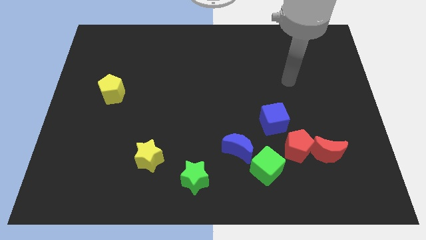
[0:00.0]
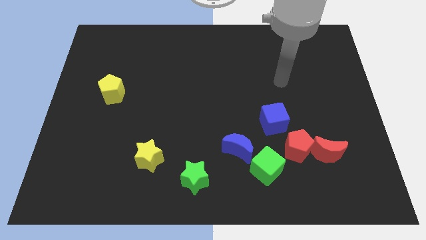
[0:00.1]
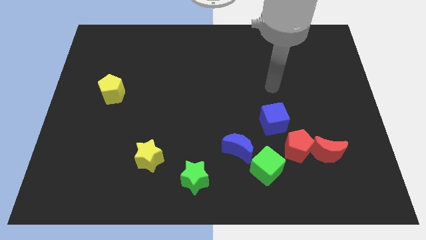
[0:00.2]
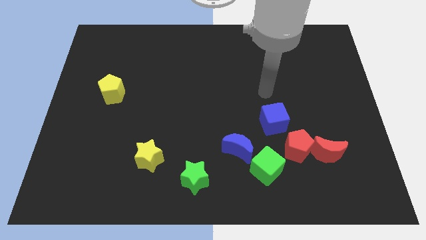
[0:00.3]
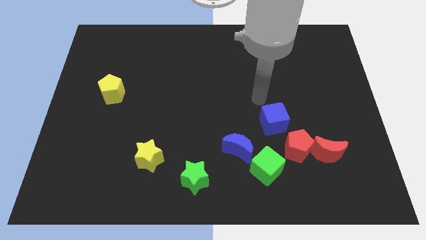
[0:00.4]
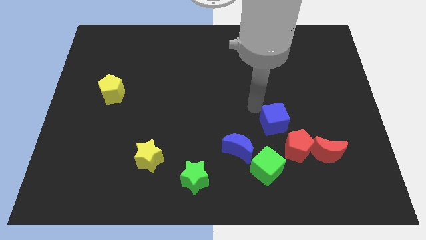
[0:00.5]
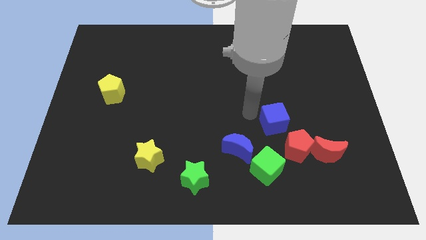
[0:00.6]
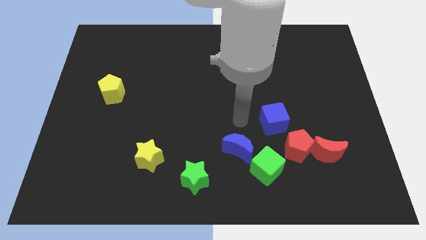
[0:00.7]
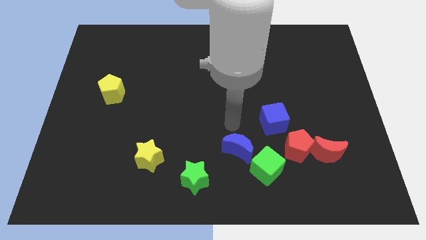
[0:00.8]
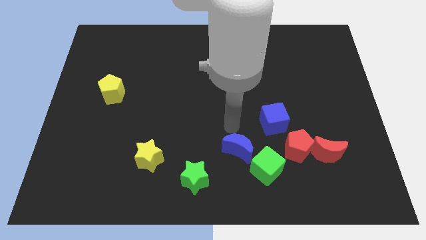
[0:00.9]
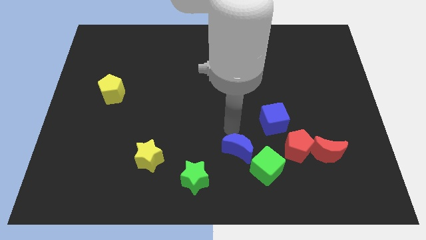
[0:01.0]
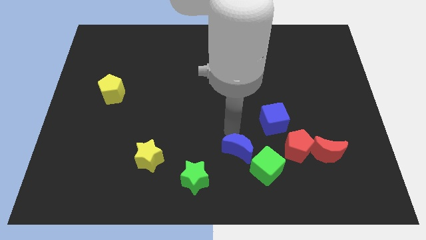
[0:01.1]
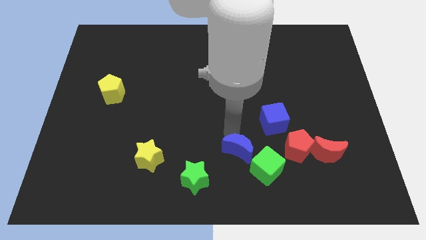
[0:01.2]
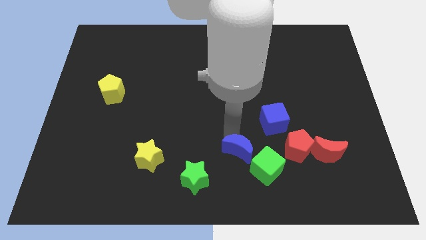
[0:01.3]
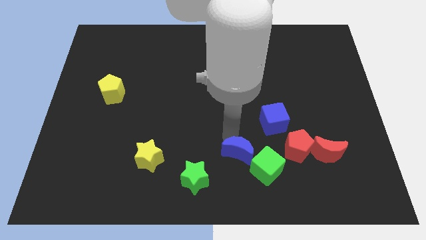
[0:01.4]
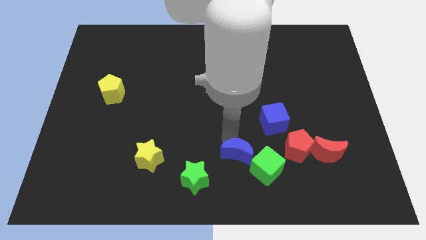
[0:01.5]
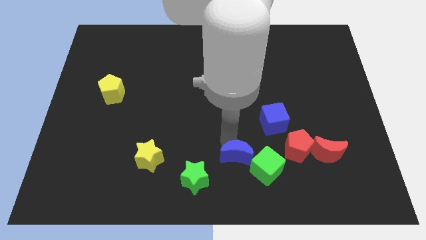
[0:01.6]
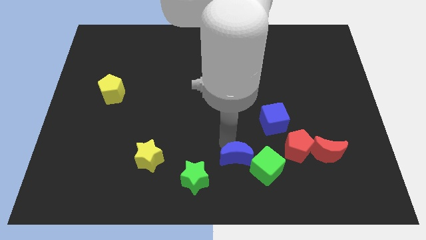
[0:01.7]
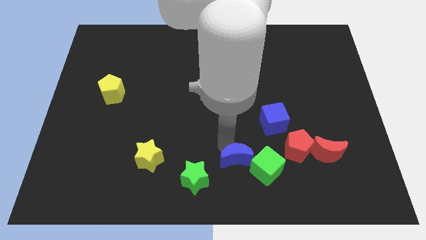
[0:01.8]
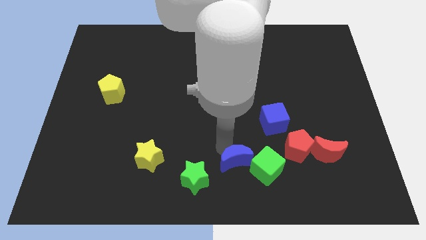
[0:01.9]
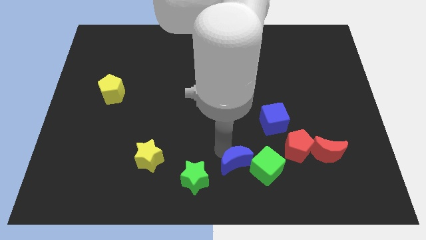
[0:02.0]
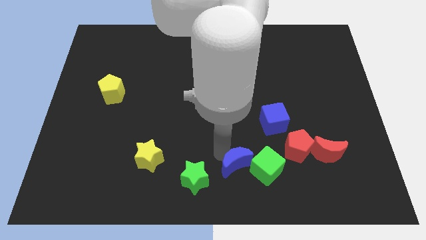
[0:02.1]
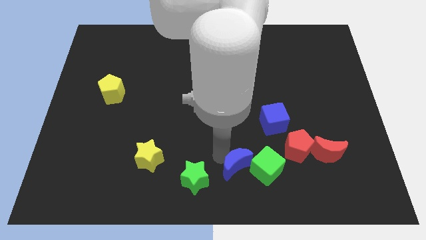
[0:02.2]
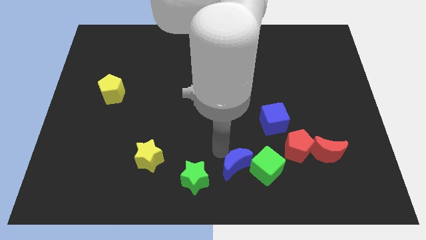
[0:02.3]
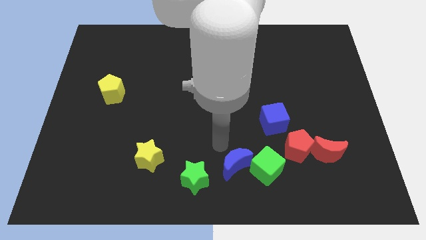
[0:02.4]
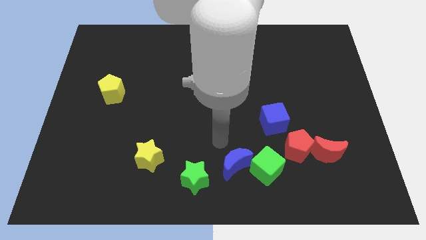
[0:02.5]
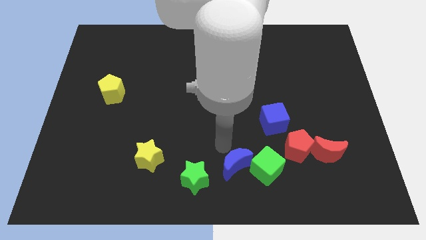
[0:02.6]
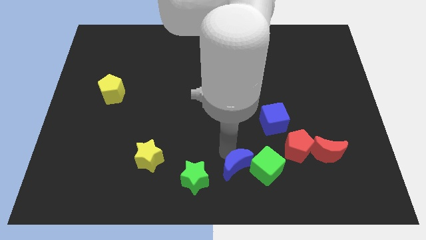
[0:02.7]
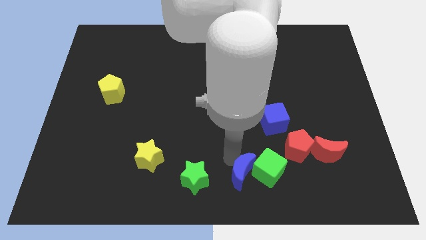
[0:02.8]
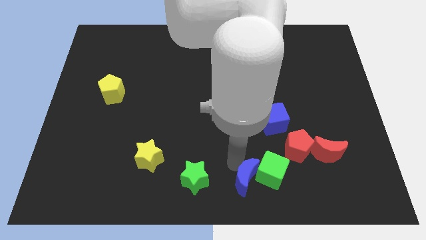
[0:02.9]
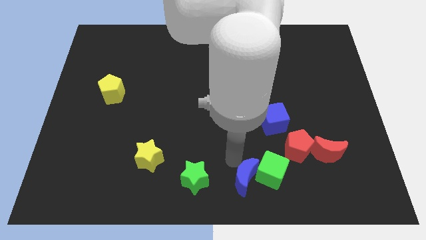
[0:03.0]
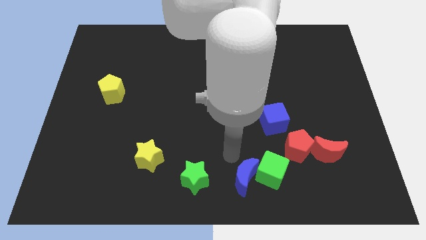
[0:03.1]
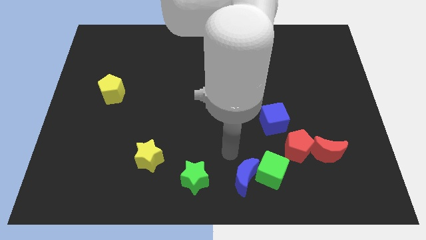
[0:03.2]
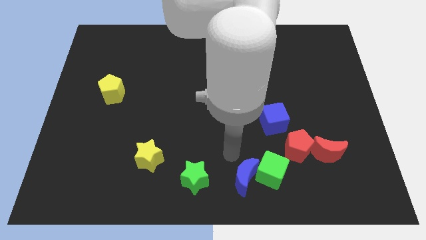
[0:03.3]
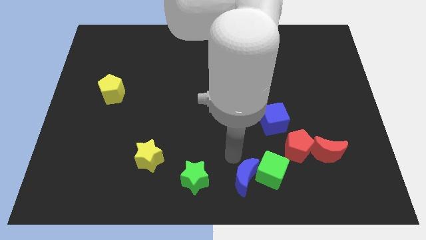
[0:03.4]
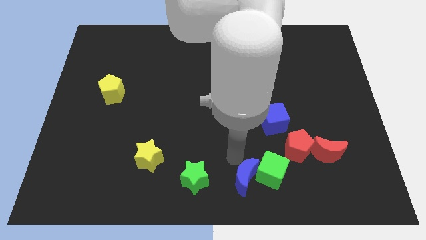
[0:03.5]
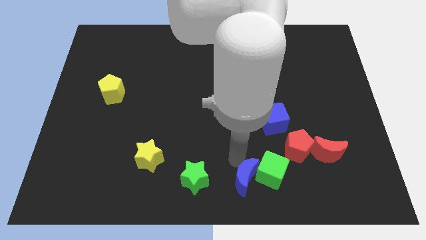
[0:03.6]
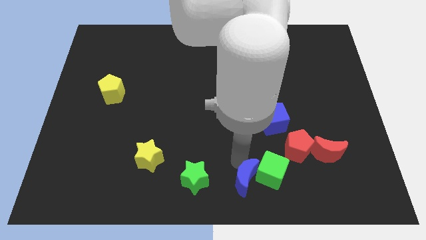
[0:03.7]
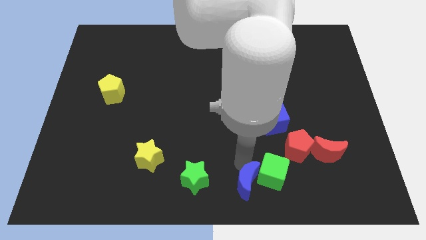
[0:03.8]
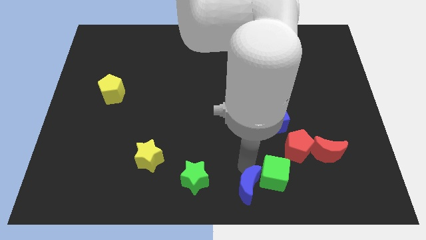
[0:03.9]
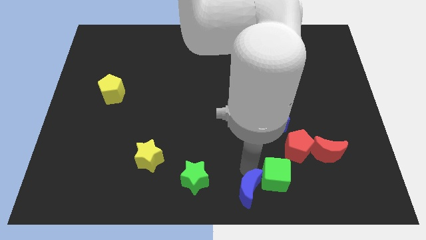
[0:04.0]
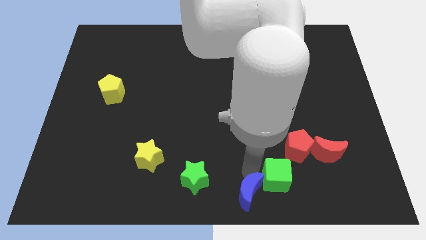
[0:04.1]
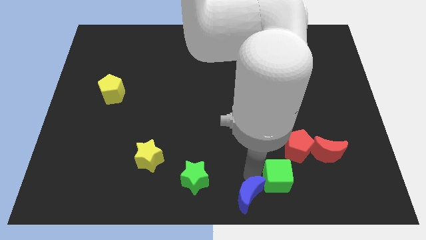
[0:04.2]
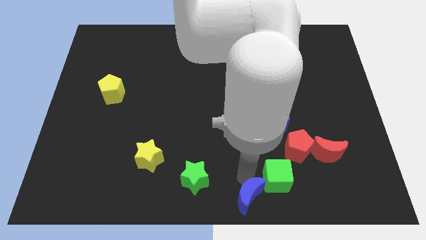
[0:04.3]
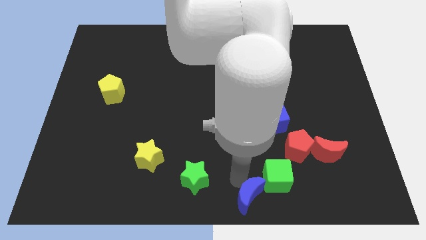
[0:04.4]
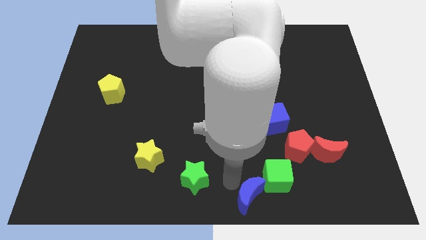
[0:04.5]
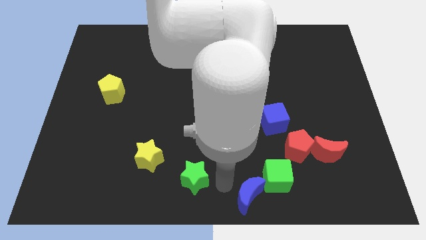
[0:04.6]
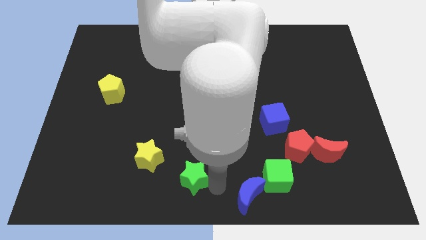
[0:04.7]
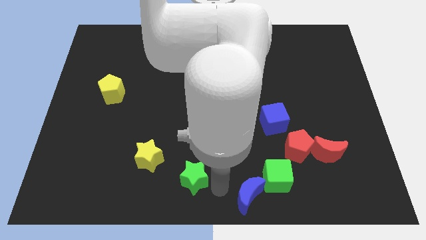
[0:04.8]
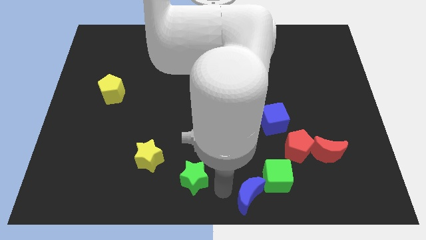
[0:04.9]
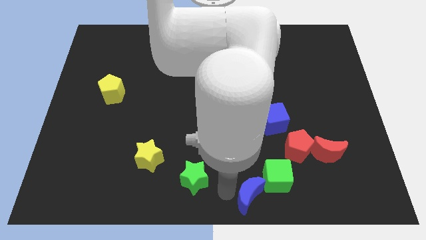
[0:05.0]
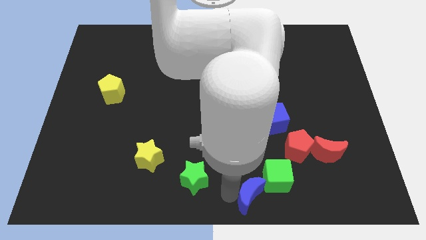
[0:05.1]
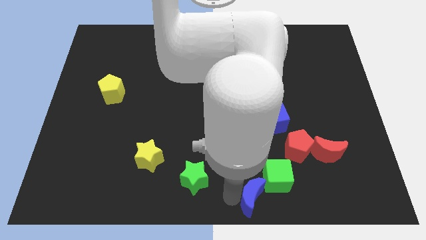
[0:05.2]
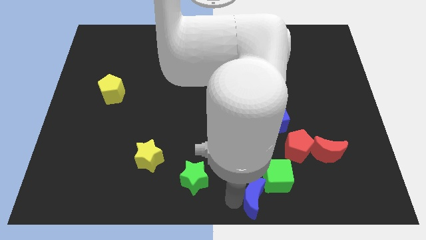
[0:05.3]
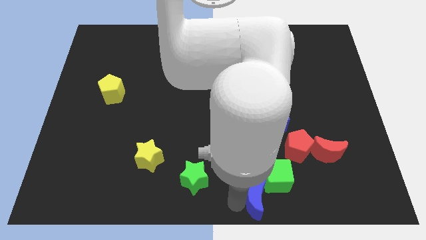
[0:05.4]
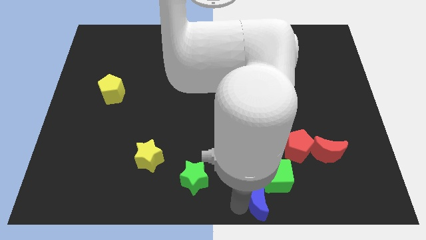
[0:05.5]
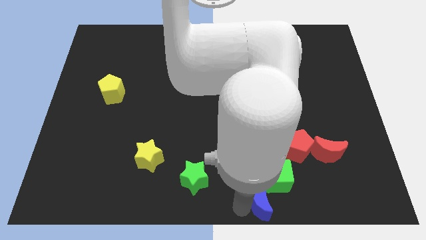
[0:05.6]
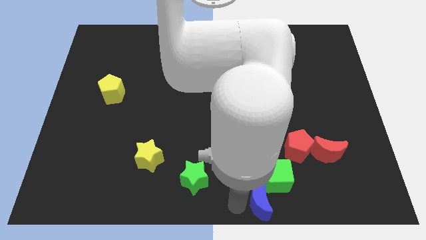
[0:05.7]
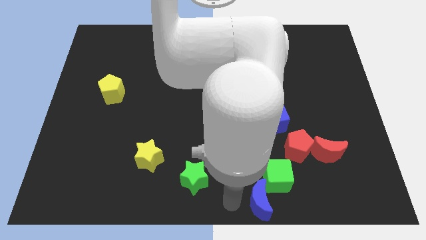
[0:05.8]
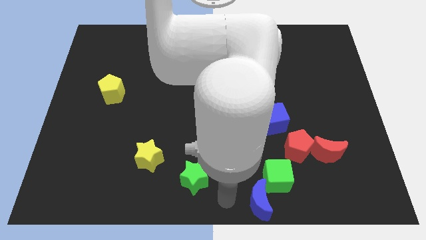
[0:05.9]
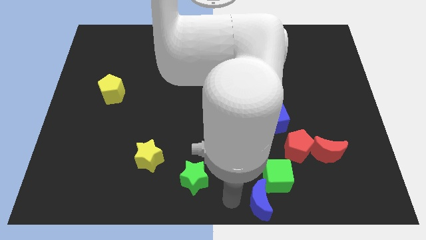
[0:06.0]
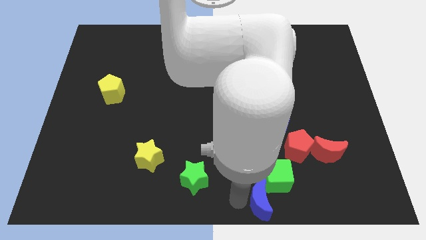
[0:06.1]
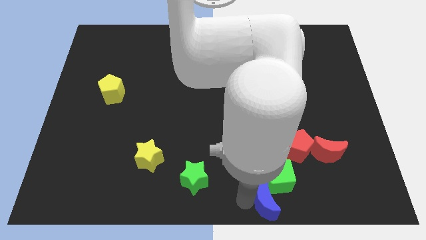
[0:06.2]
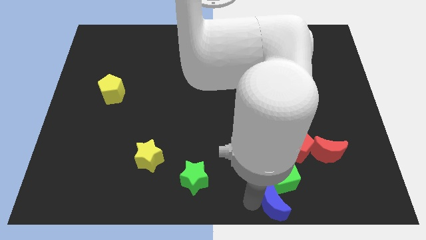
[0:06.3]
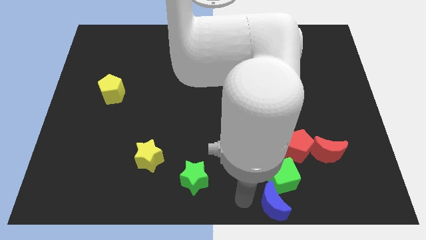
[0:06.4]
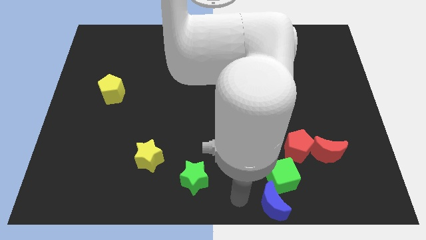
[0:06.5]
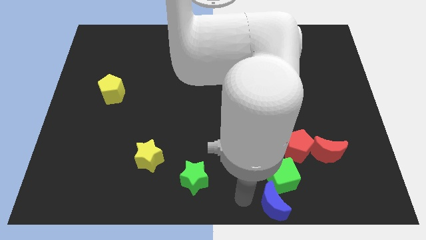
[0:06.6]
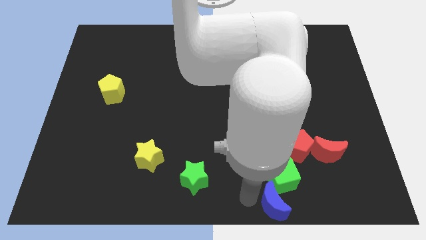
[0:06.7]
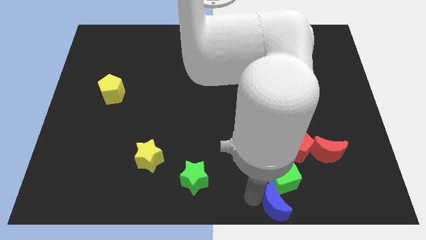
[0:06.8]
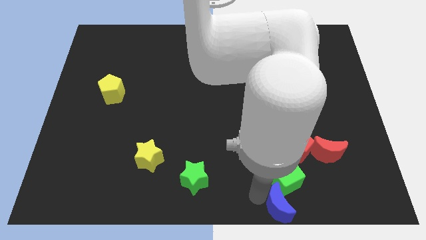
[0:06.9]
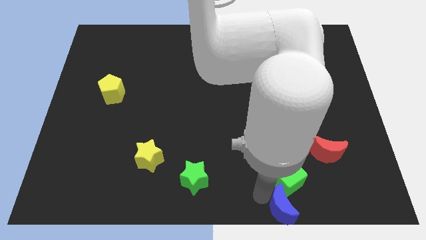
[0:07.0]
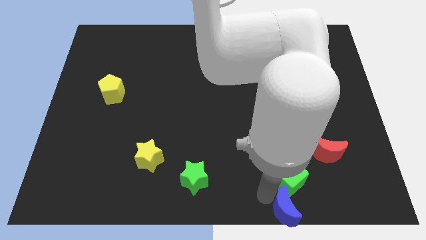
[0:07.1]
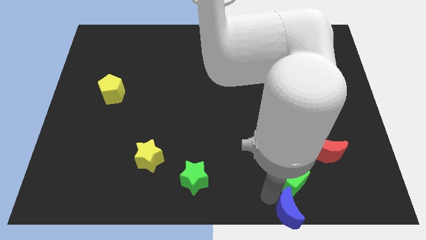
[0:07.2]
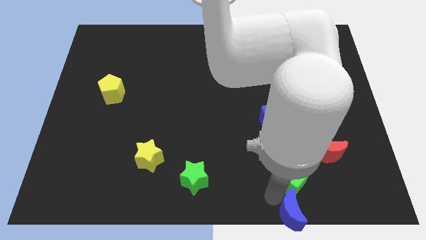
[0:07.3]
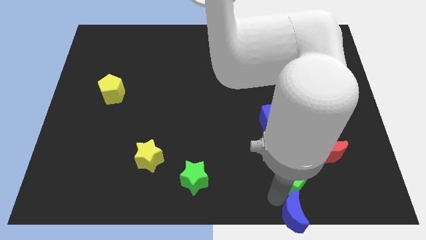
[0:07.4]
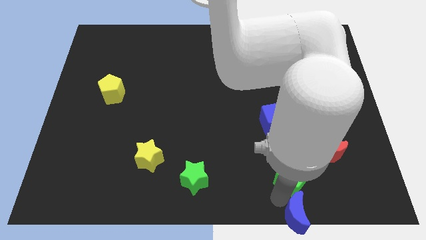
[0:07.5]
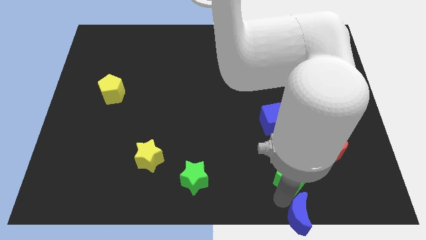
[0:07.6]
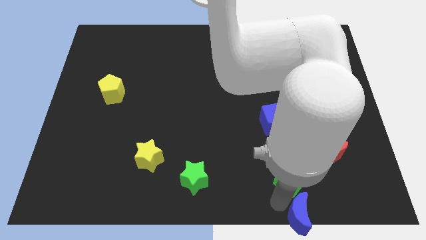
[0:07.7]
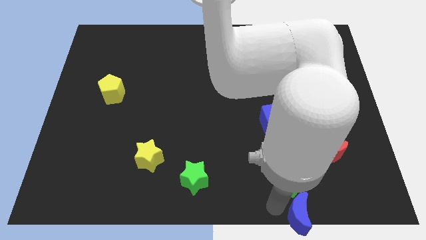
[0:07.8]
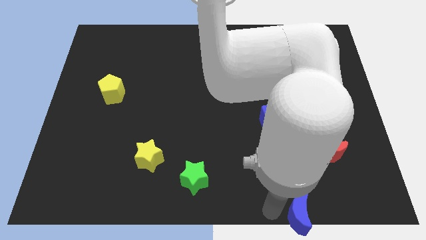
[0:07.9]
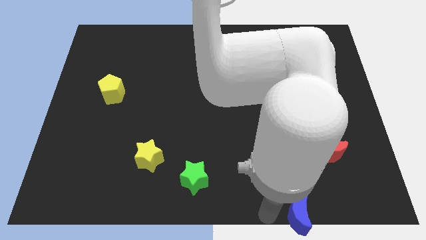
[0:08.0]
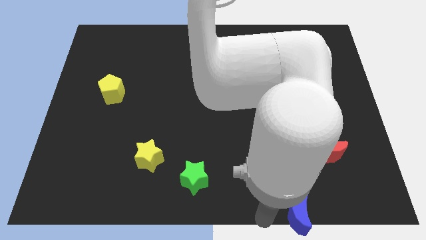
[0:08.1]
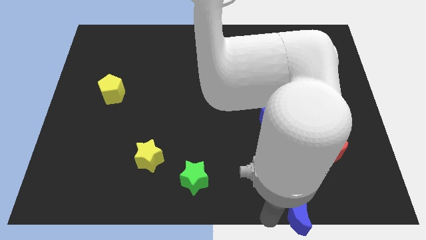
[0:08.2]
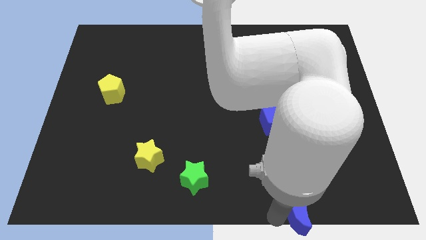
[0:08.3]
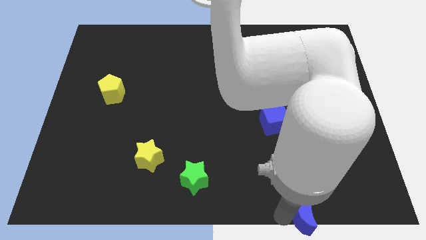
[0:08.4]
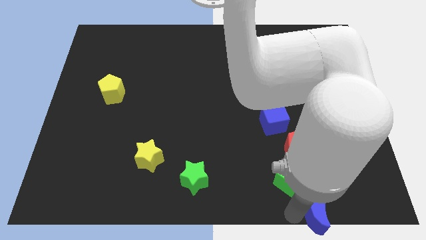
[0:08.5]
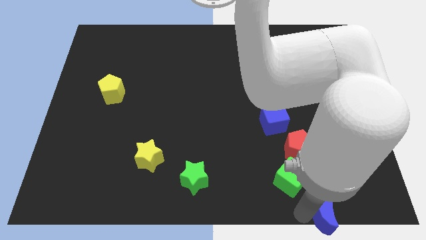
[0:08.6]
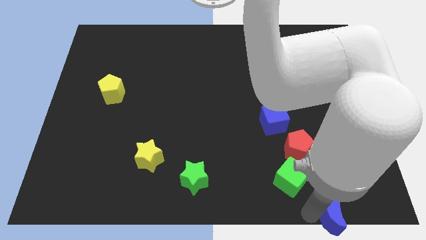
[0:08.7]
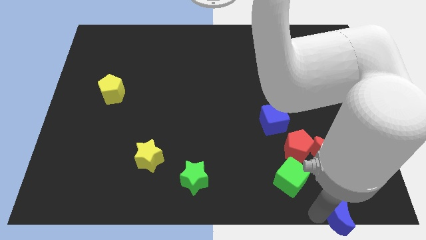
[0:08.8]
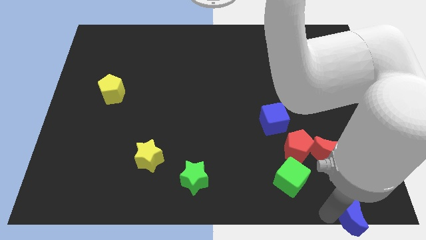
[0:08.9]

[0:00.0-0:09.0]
slide the blue moon to the lower right corner
